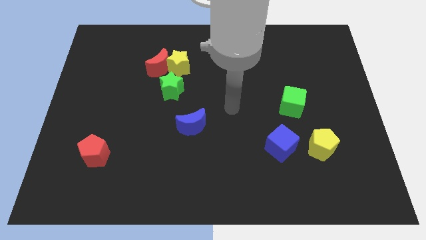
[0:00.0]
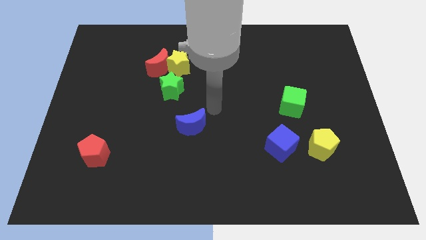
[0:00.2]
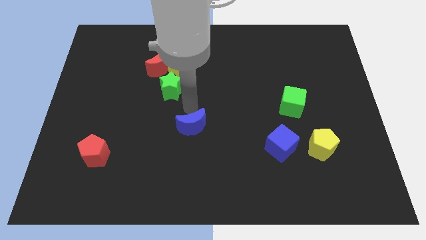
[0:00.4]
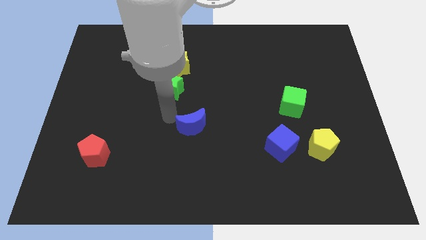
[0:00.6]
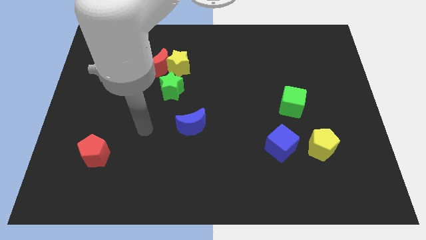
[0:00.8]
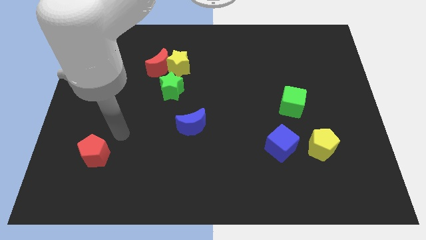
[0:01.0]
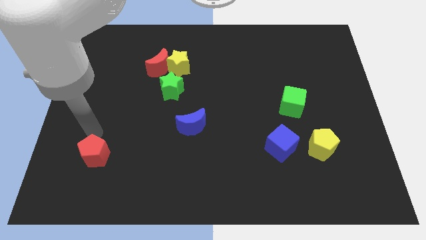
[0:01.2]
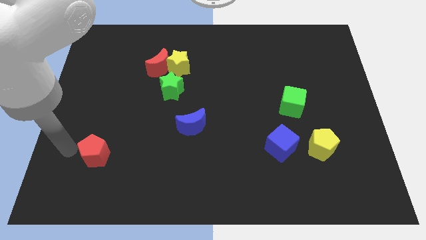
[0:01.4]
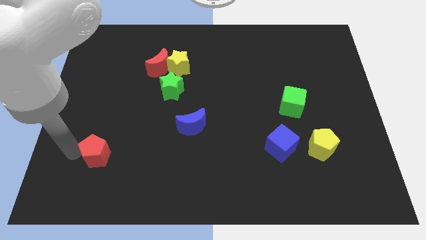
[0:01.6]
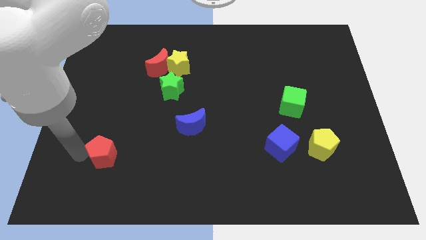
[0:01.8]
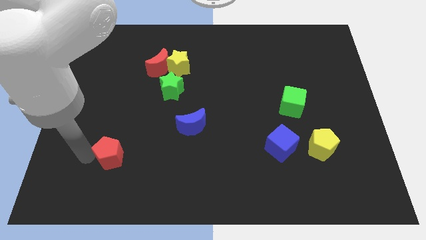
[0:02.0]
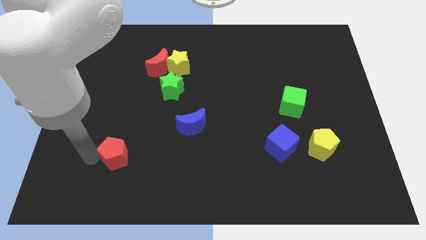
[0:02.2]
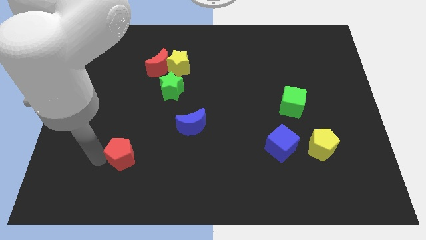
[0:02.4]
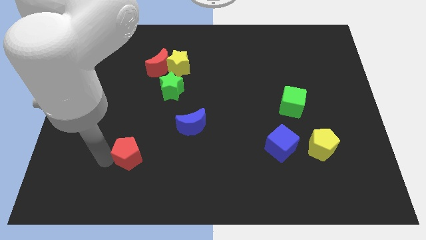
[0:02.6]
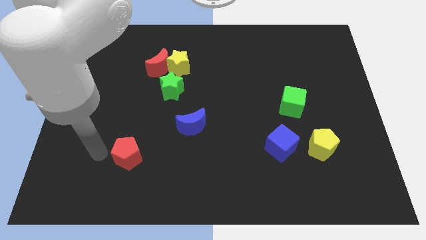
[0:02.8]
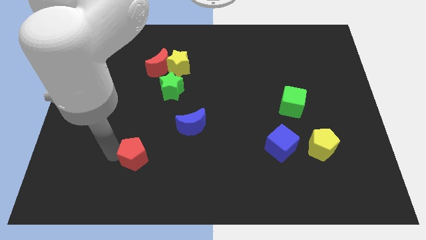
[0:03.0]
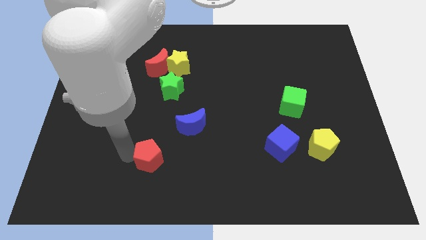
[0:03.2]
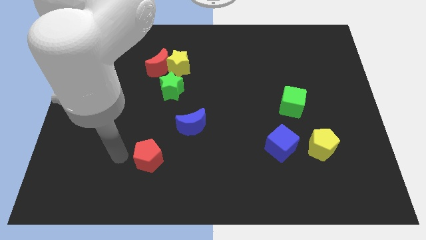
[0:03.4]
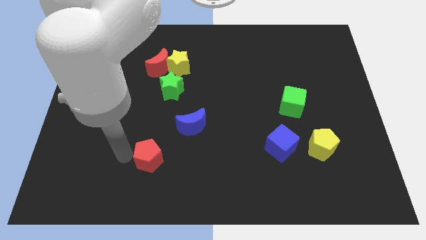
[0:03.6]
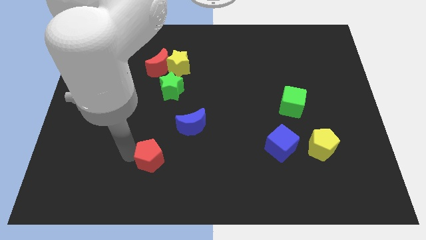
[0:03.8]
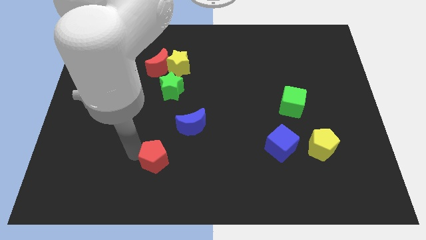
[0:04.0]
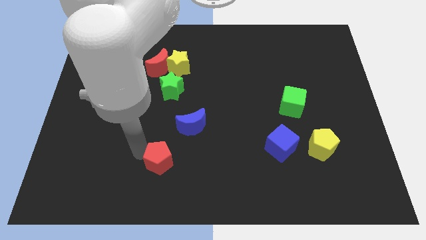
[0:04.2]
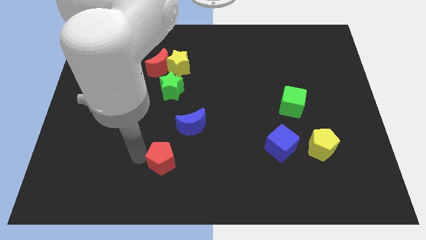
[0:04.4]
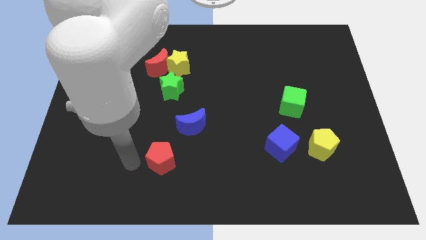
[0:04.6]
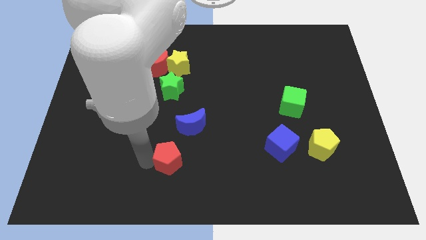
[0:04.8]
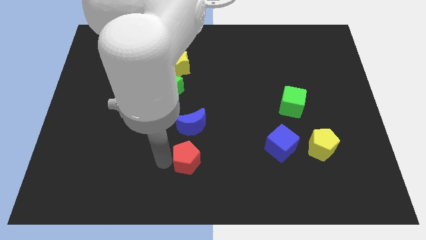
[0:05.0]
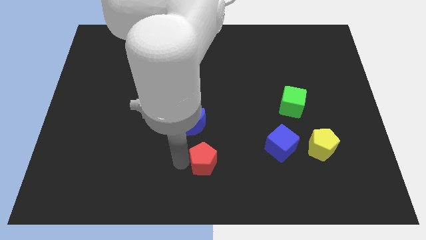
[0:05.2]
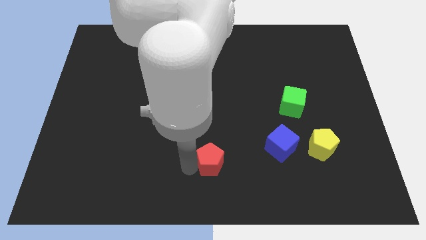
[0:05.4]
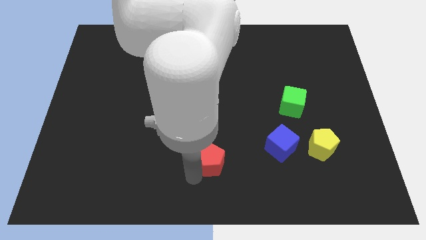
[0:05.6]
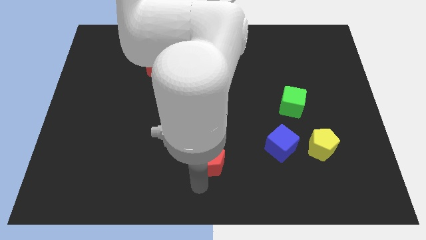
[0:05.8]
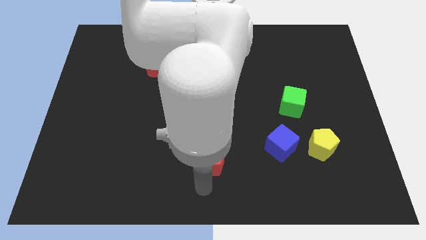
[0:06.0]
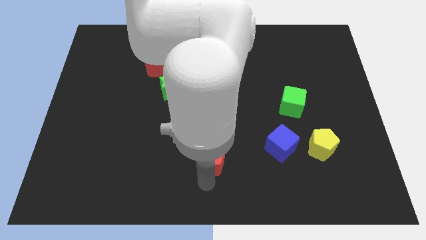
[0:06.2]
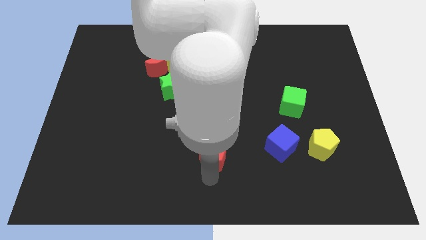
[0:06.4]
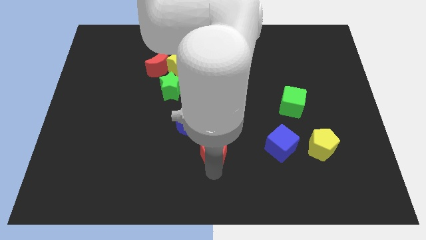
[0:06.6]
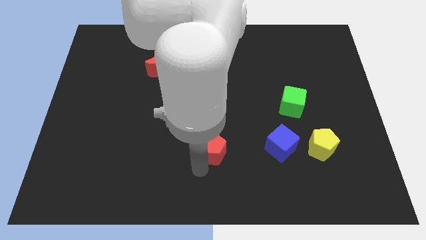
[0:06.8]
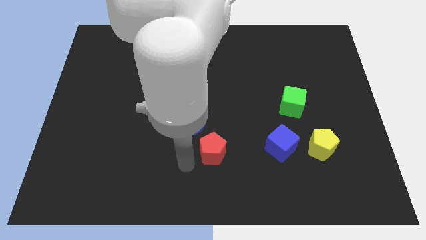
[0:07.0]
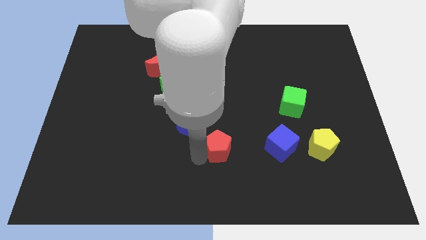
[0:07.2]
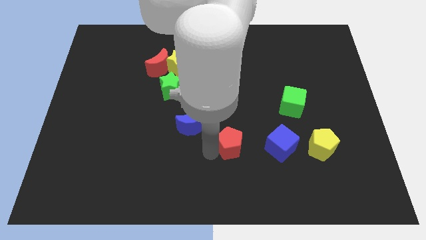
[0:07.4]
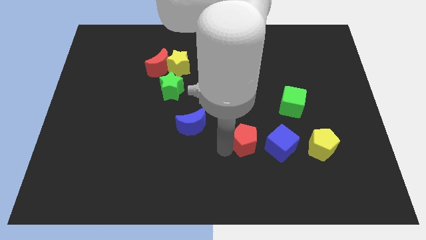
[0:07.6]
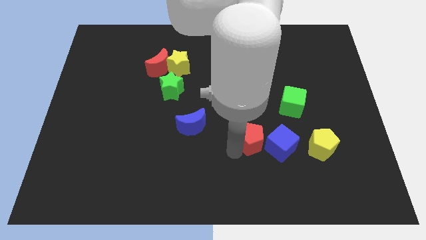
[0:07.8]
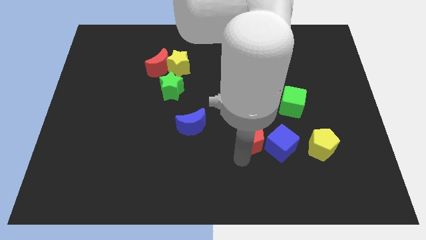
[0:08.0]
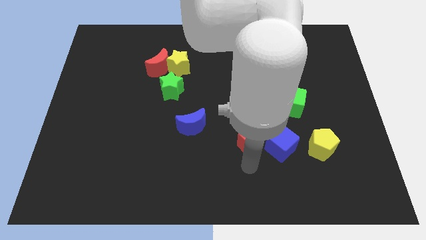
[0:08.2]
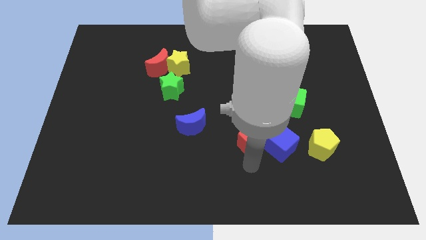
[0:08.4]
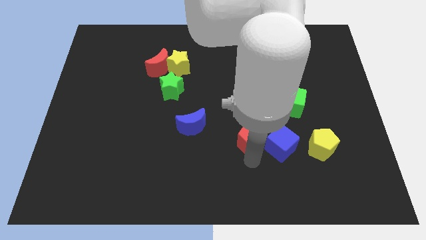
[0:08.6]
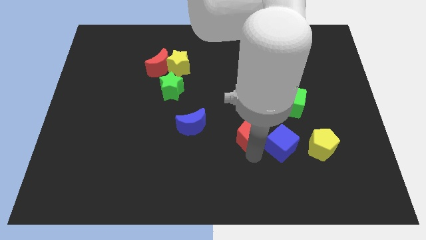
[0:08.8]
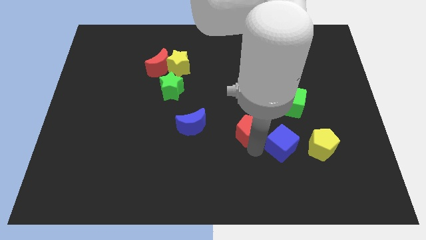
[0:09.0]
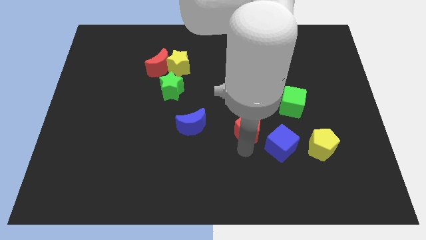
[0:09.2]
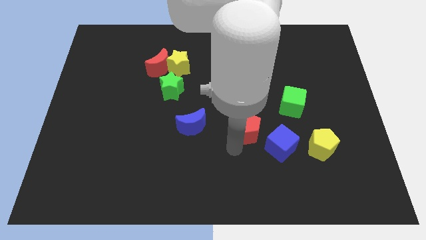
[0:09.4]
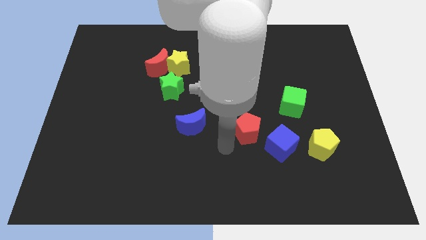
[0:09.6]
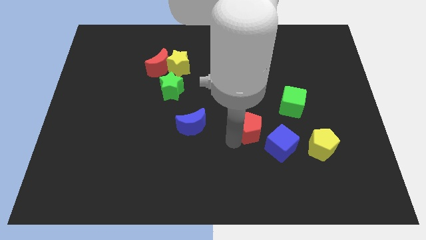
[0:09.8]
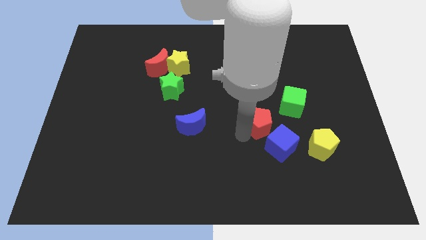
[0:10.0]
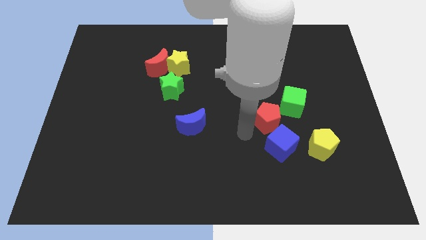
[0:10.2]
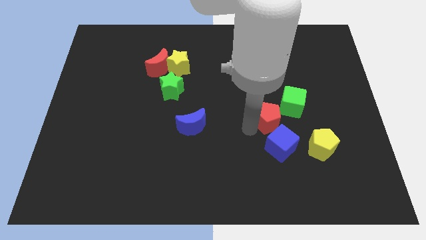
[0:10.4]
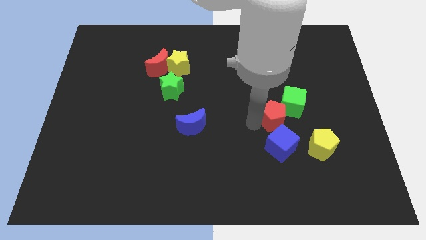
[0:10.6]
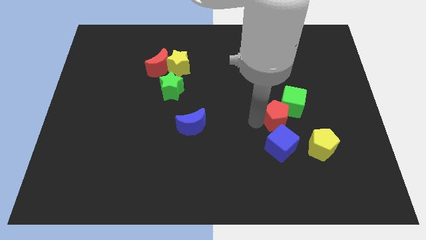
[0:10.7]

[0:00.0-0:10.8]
put the red pentagon close to the green cube
